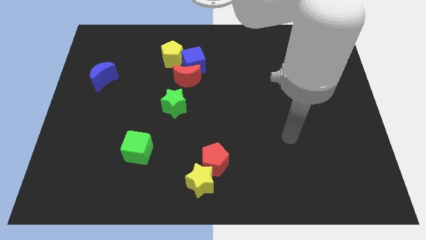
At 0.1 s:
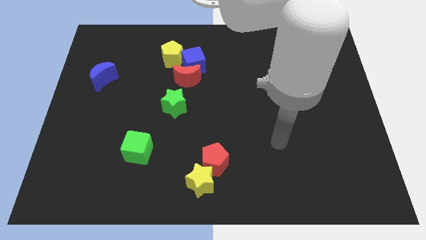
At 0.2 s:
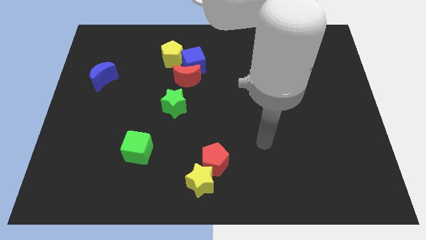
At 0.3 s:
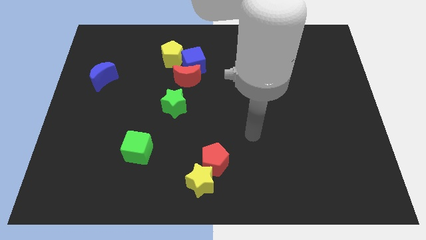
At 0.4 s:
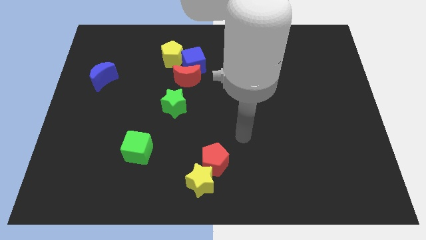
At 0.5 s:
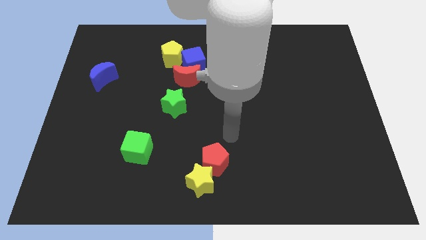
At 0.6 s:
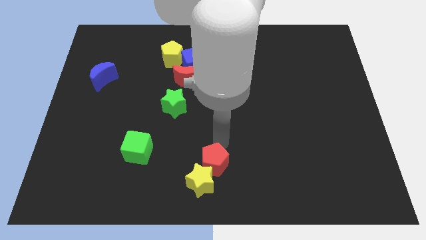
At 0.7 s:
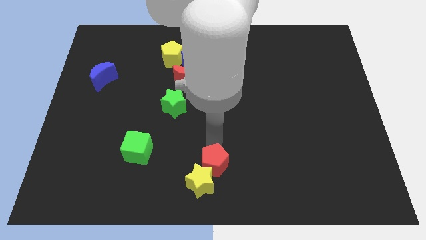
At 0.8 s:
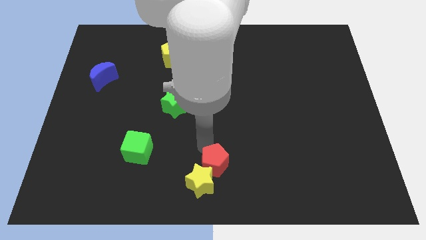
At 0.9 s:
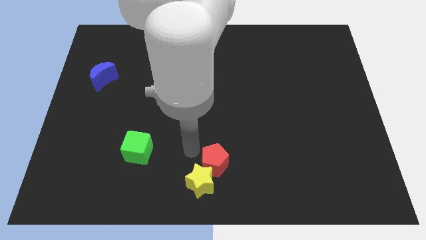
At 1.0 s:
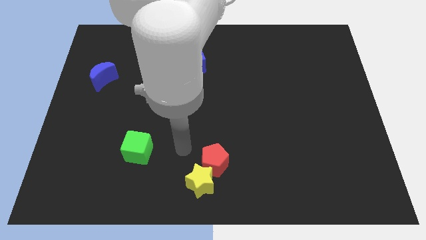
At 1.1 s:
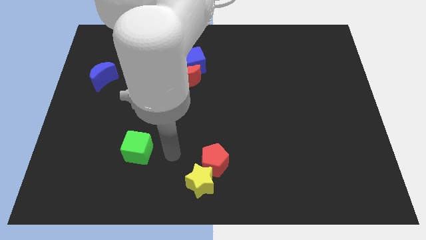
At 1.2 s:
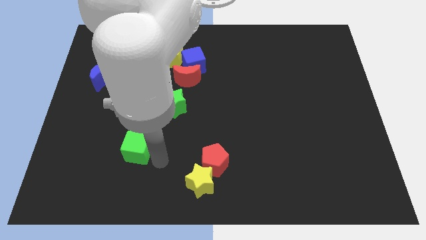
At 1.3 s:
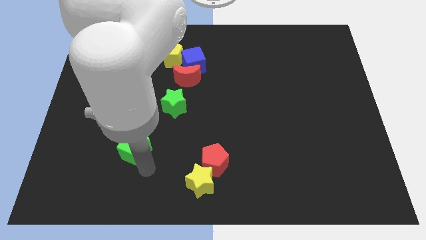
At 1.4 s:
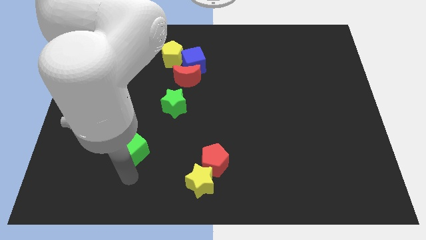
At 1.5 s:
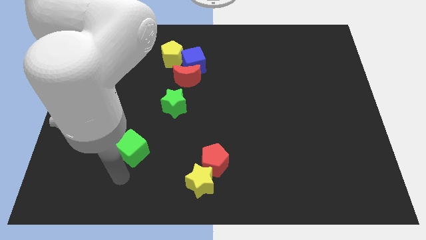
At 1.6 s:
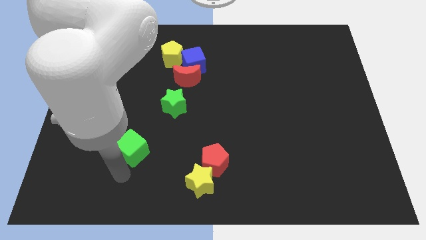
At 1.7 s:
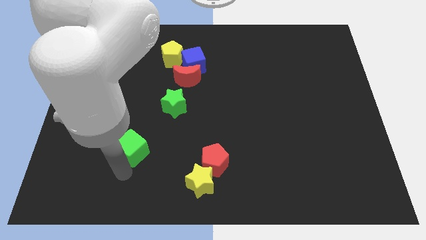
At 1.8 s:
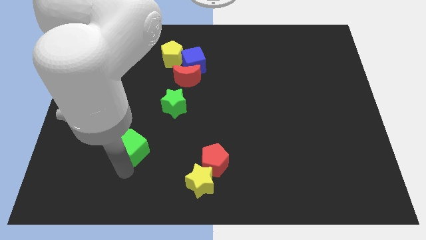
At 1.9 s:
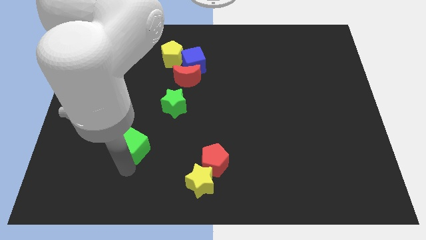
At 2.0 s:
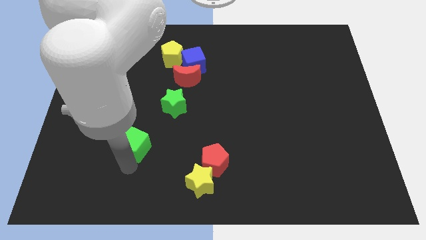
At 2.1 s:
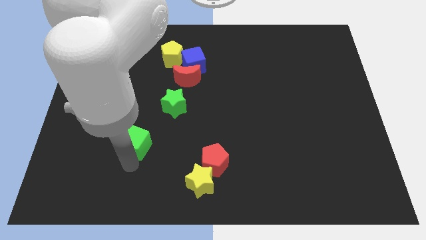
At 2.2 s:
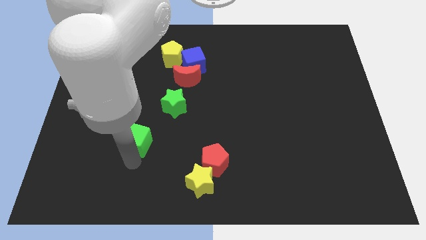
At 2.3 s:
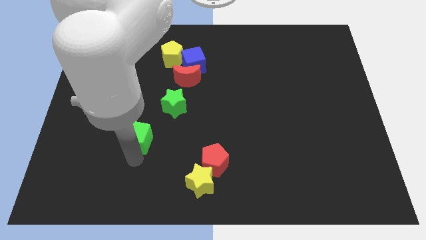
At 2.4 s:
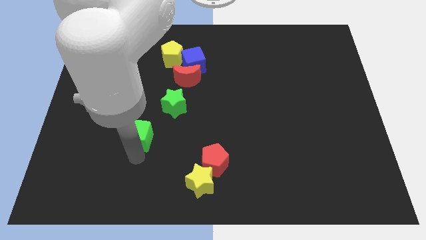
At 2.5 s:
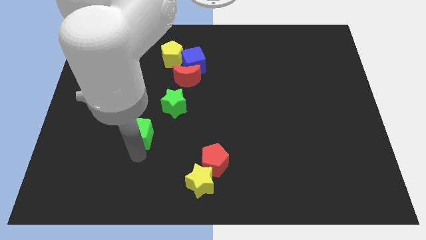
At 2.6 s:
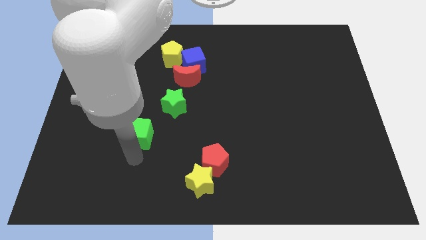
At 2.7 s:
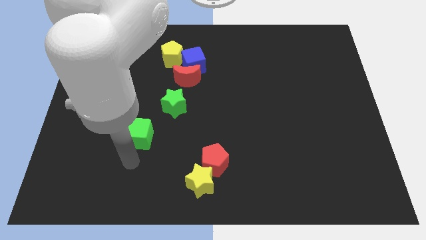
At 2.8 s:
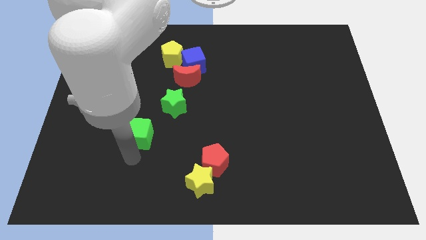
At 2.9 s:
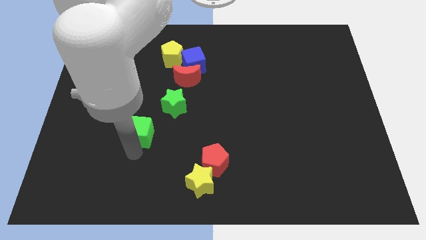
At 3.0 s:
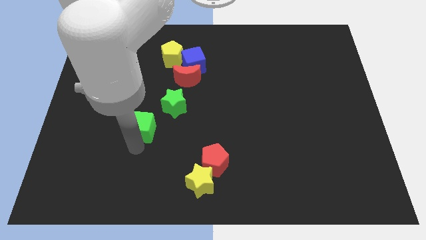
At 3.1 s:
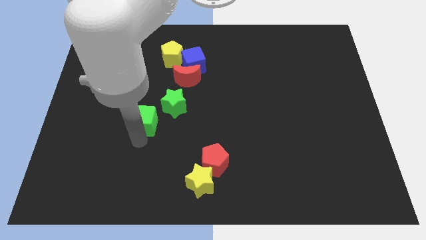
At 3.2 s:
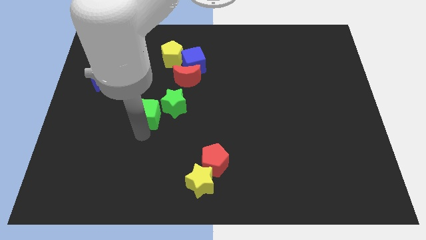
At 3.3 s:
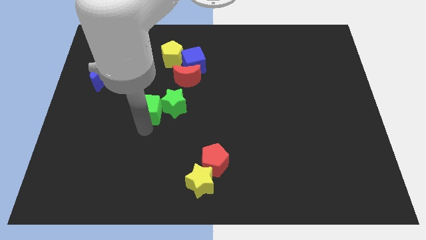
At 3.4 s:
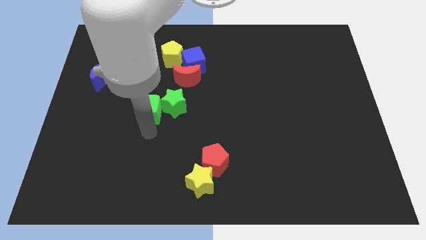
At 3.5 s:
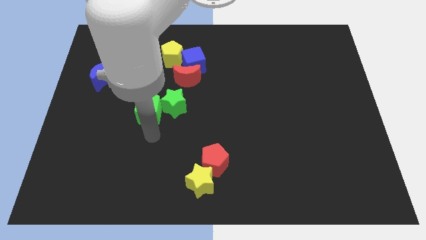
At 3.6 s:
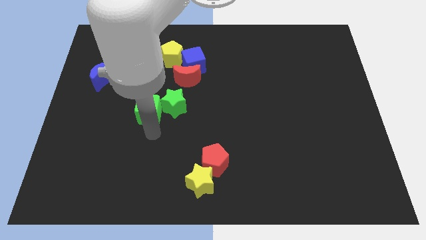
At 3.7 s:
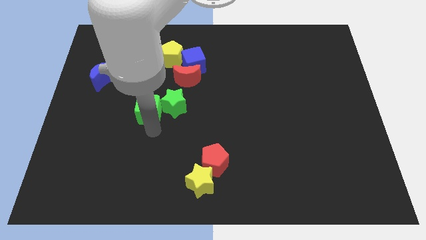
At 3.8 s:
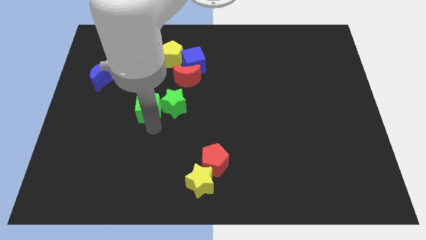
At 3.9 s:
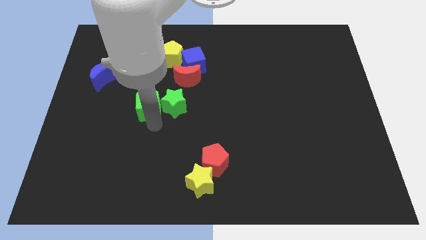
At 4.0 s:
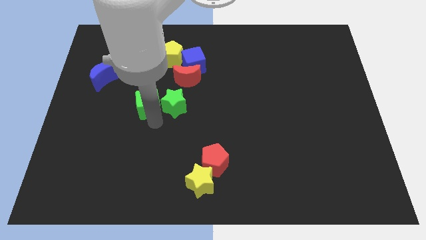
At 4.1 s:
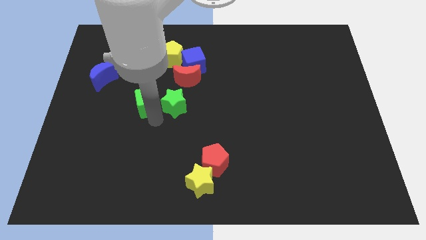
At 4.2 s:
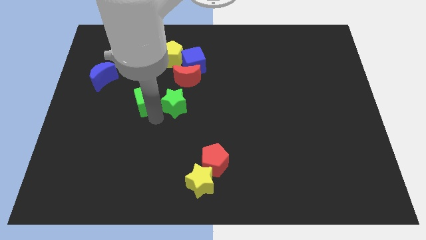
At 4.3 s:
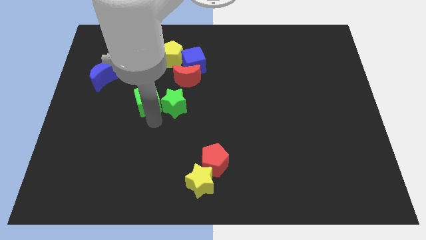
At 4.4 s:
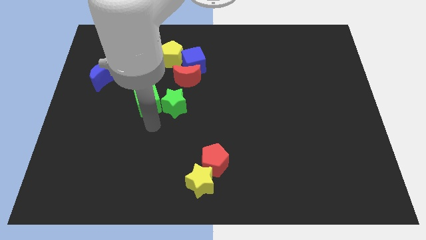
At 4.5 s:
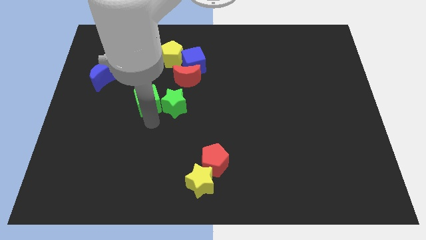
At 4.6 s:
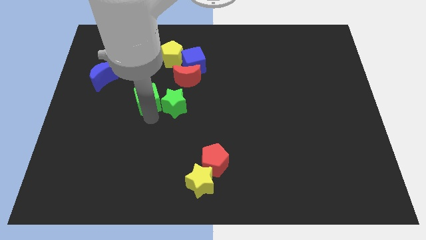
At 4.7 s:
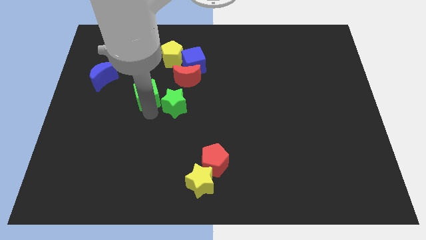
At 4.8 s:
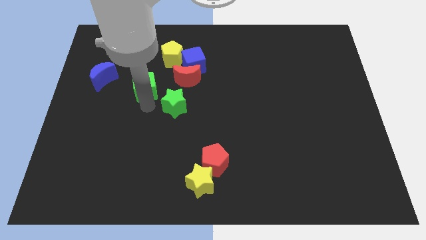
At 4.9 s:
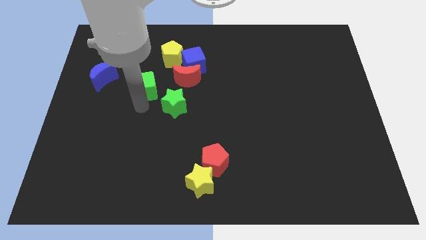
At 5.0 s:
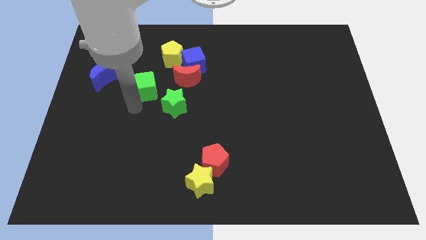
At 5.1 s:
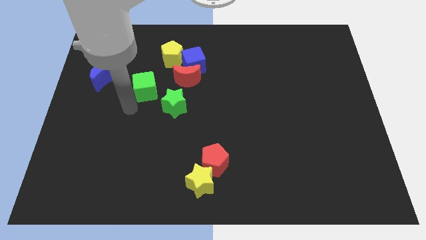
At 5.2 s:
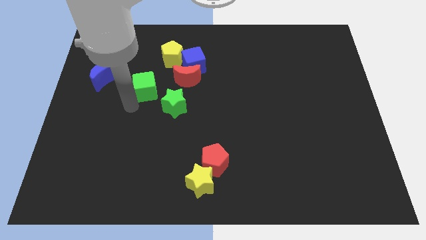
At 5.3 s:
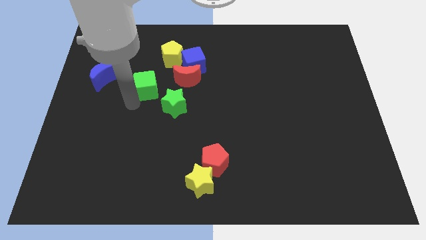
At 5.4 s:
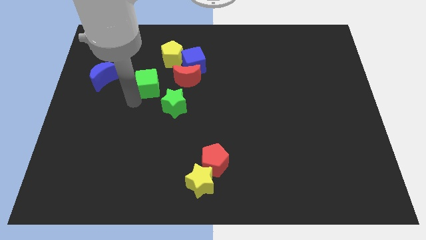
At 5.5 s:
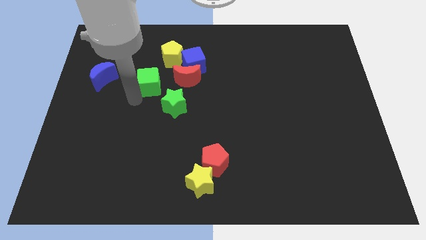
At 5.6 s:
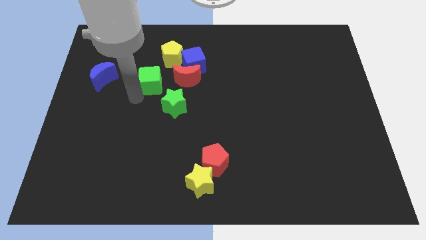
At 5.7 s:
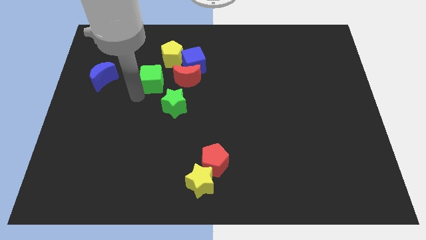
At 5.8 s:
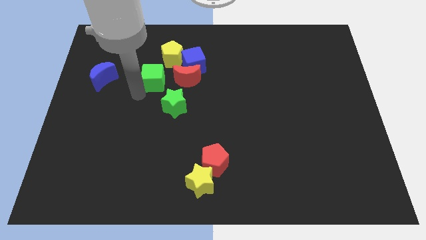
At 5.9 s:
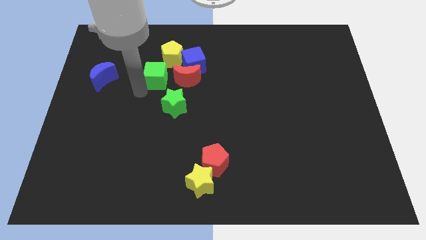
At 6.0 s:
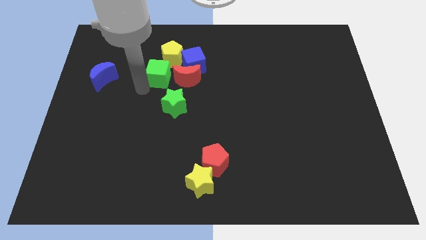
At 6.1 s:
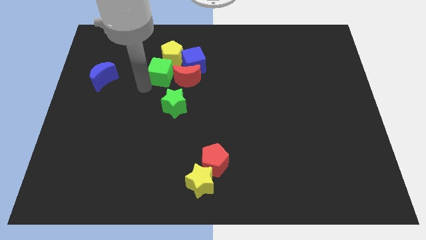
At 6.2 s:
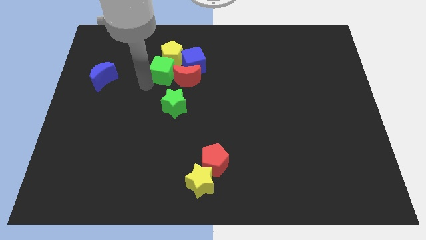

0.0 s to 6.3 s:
put the green cube towards the yellow pentagon

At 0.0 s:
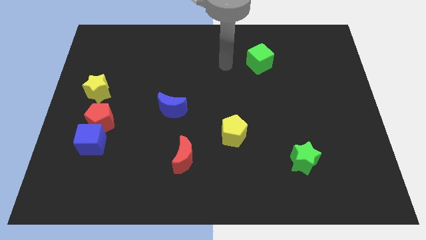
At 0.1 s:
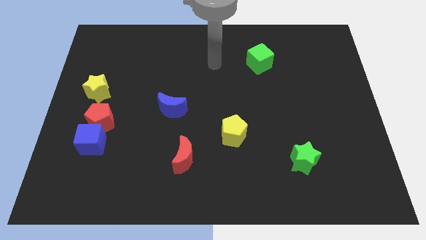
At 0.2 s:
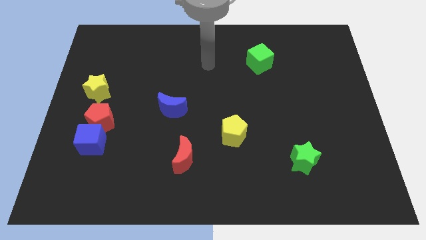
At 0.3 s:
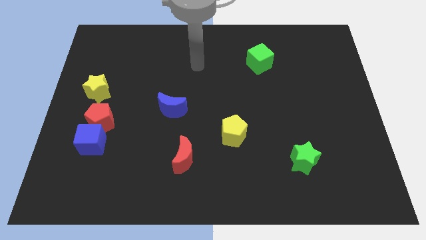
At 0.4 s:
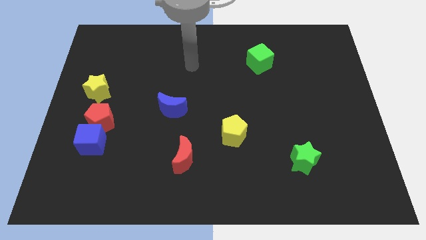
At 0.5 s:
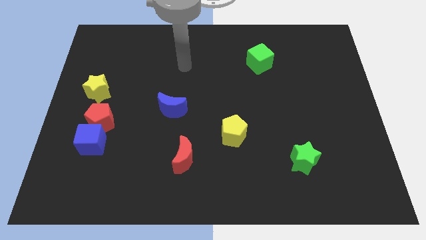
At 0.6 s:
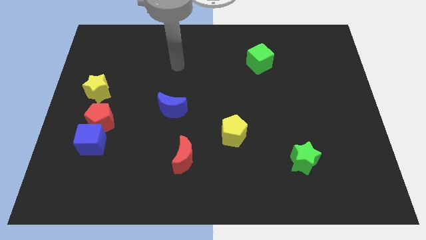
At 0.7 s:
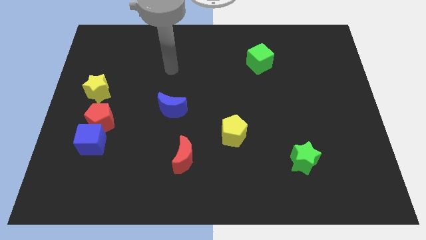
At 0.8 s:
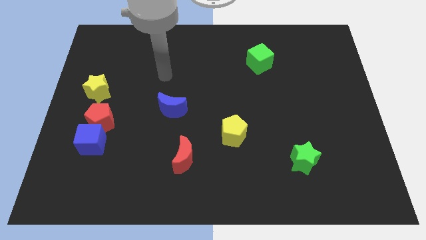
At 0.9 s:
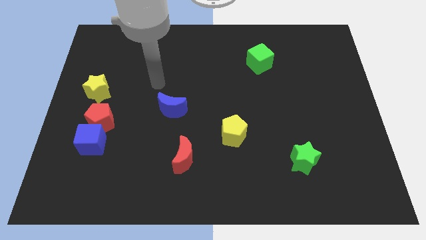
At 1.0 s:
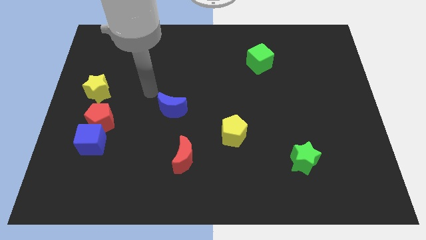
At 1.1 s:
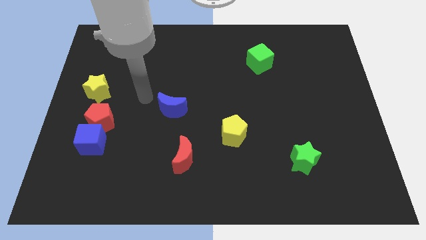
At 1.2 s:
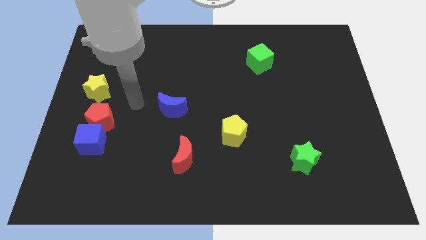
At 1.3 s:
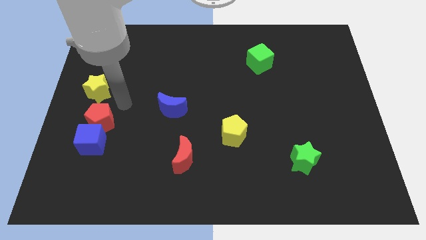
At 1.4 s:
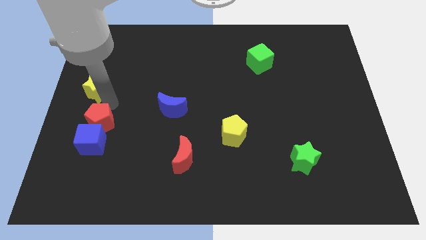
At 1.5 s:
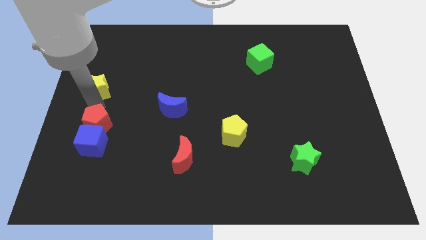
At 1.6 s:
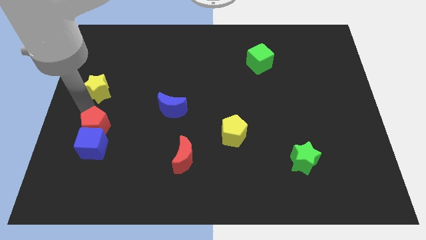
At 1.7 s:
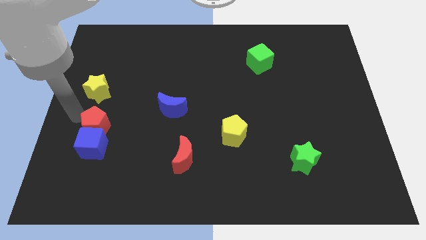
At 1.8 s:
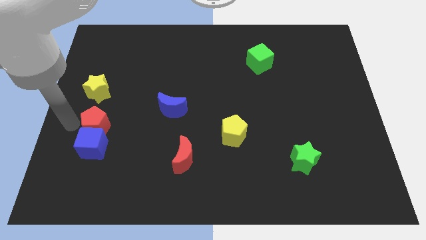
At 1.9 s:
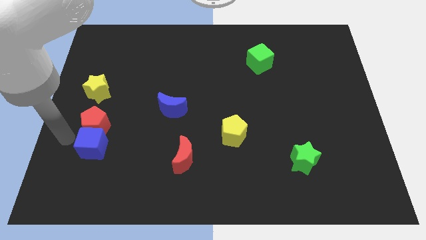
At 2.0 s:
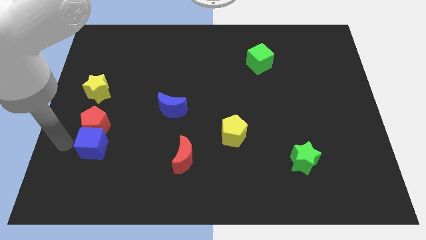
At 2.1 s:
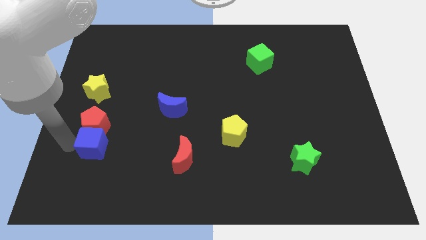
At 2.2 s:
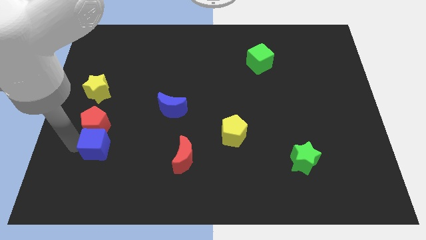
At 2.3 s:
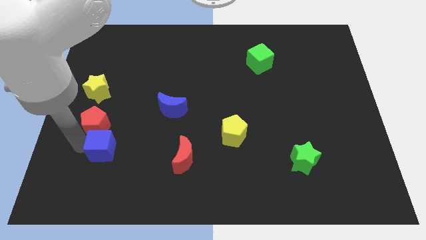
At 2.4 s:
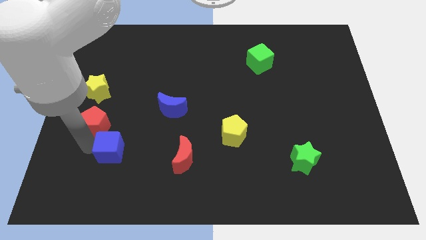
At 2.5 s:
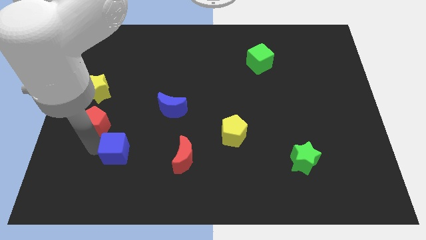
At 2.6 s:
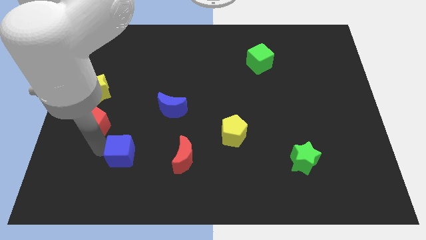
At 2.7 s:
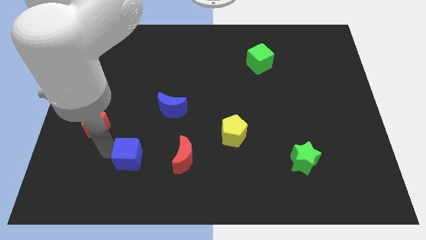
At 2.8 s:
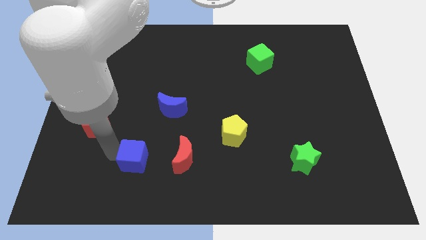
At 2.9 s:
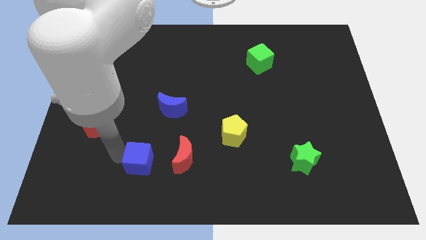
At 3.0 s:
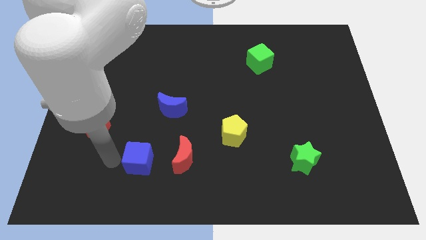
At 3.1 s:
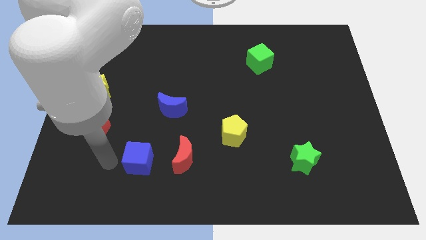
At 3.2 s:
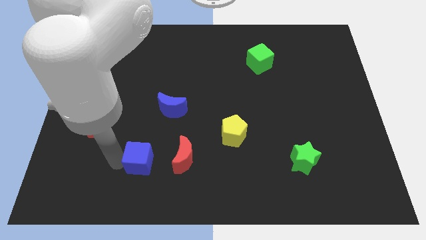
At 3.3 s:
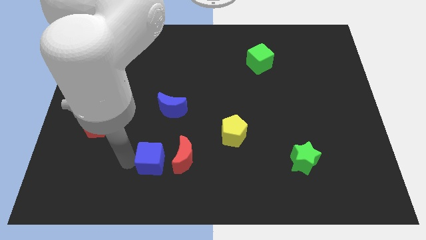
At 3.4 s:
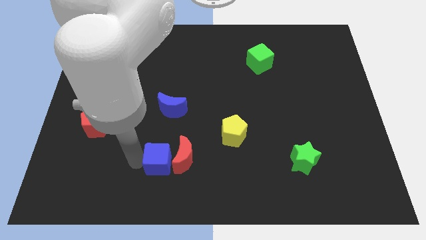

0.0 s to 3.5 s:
push the blue cube next to the red moon
